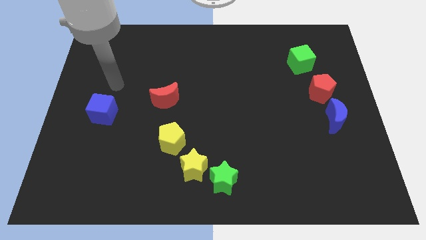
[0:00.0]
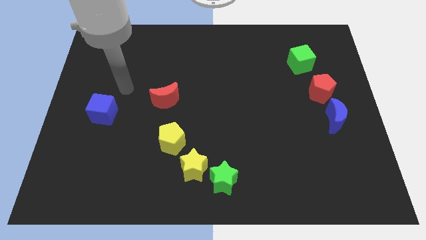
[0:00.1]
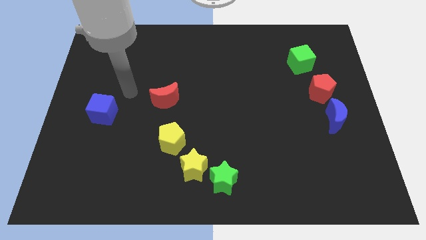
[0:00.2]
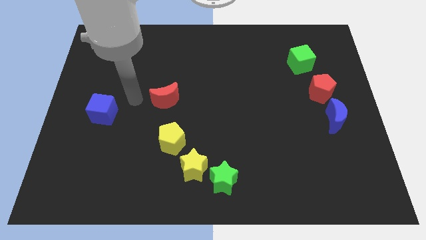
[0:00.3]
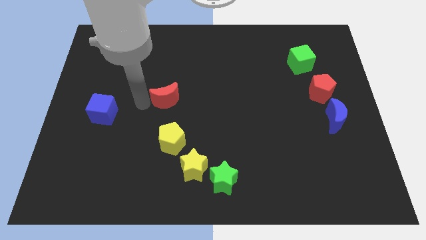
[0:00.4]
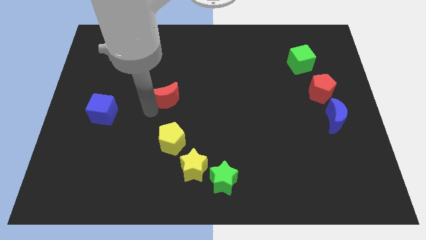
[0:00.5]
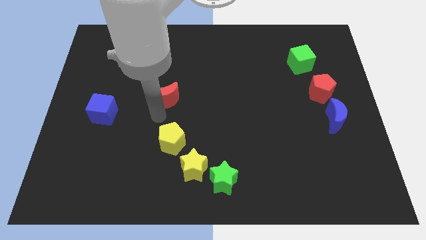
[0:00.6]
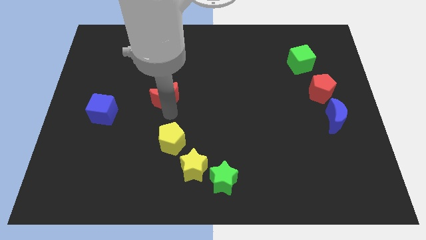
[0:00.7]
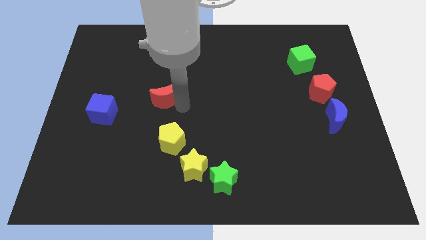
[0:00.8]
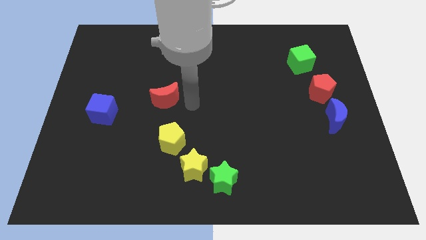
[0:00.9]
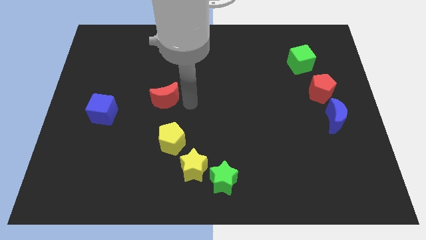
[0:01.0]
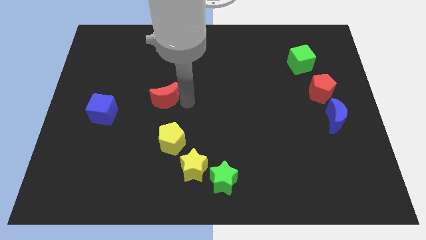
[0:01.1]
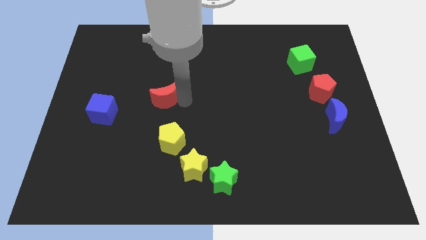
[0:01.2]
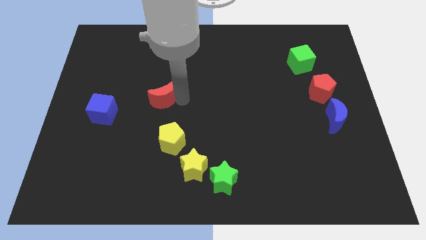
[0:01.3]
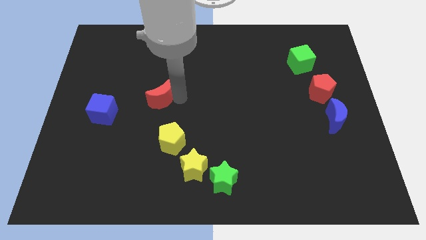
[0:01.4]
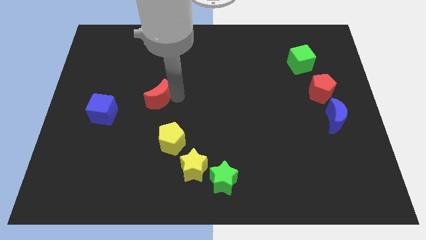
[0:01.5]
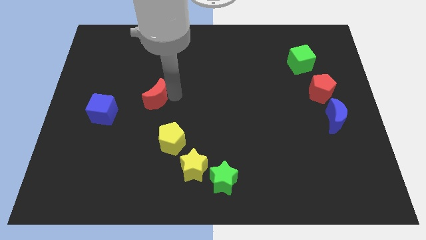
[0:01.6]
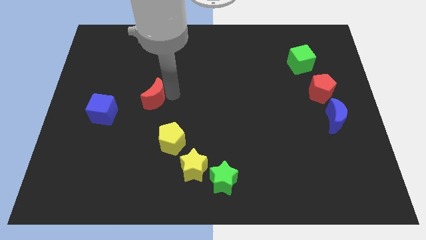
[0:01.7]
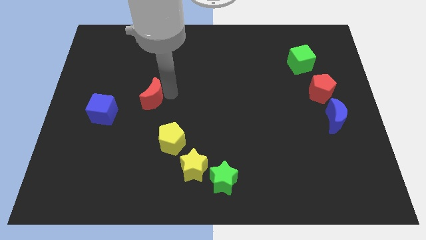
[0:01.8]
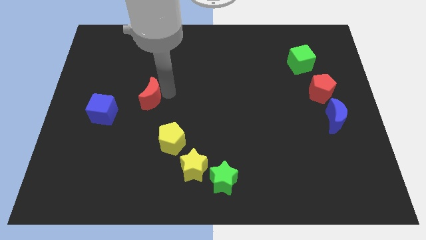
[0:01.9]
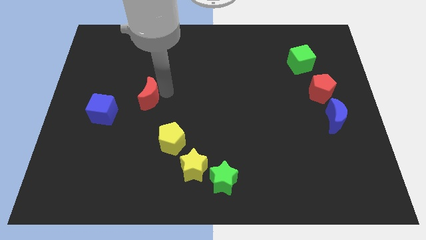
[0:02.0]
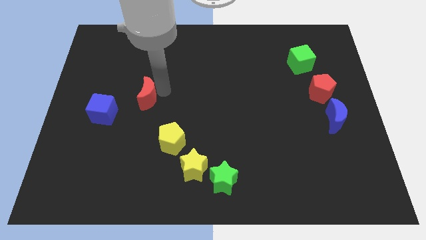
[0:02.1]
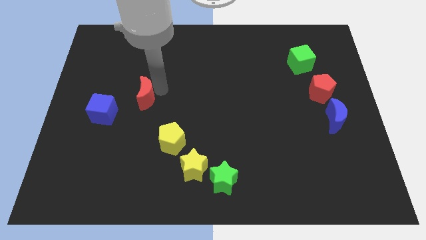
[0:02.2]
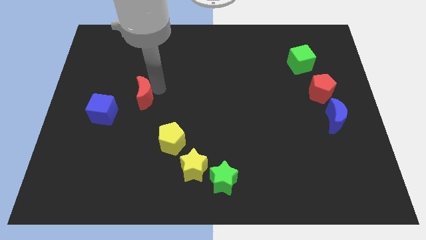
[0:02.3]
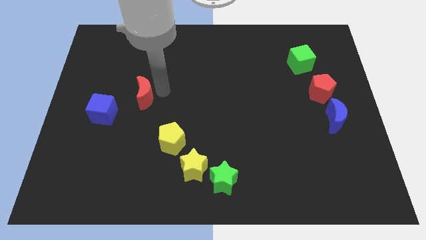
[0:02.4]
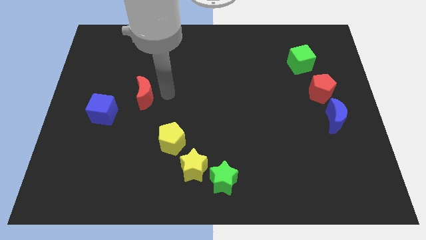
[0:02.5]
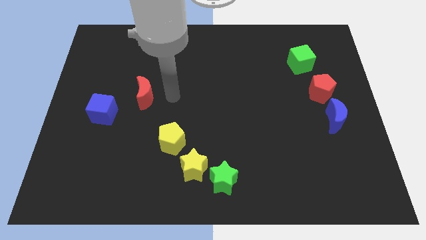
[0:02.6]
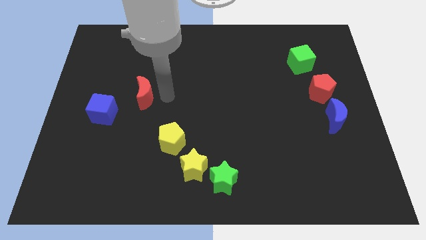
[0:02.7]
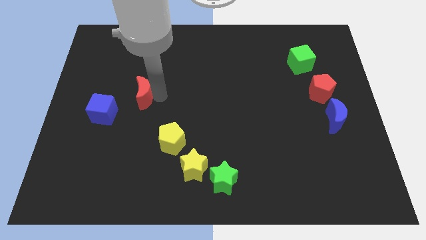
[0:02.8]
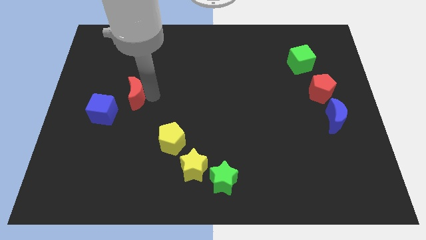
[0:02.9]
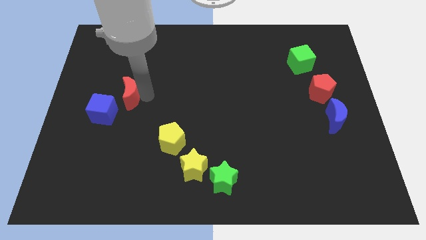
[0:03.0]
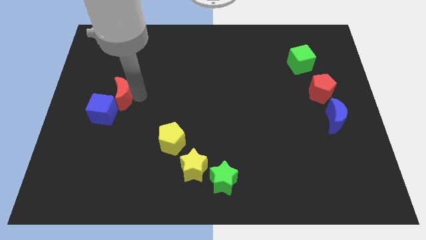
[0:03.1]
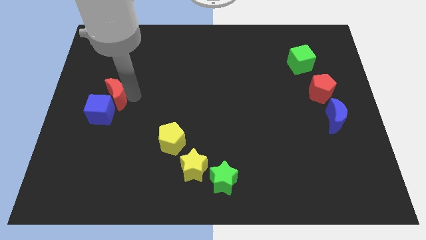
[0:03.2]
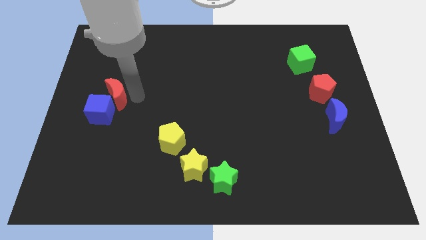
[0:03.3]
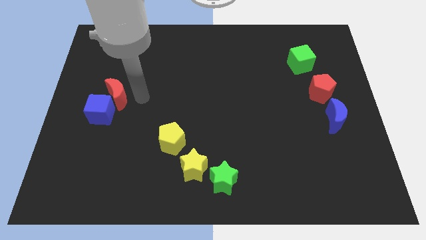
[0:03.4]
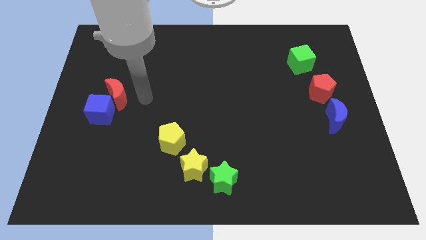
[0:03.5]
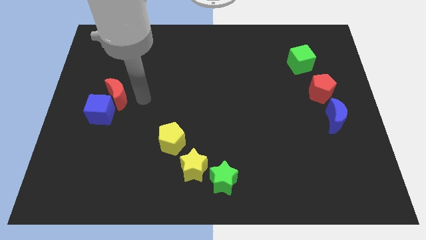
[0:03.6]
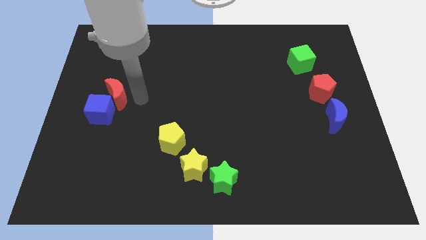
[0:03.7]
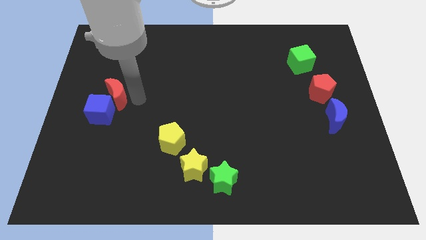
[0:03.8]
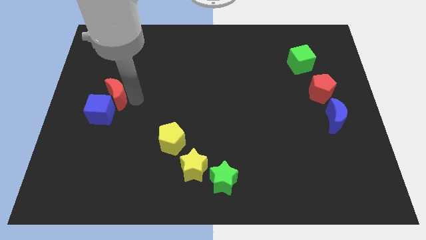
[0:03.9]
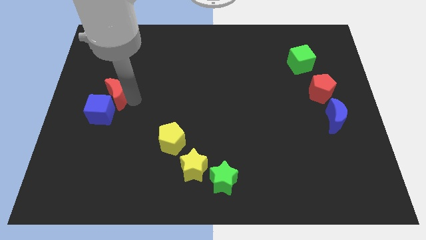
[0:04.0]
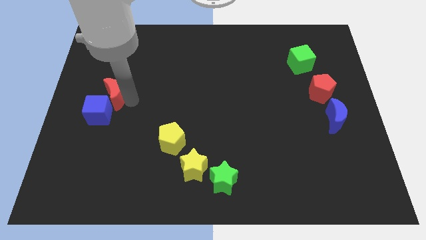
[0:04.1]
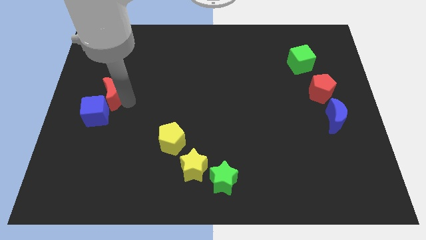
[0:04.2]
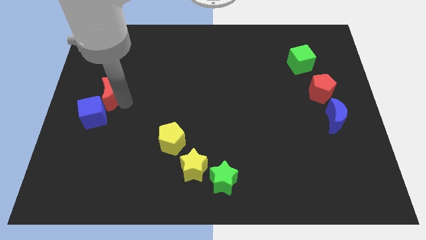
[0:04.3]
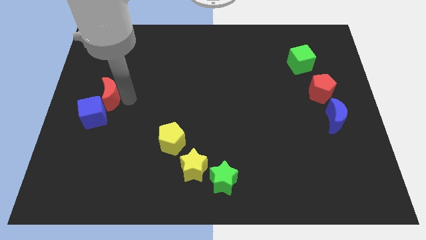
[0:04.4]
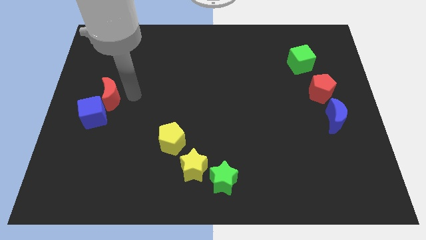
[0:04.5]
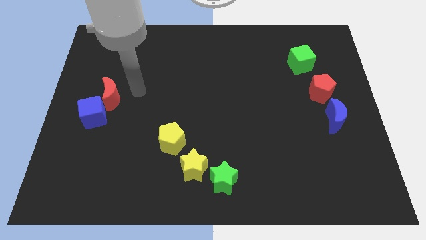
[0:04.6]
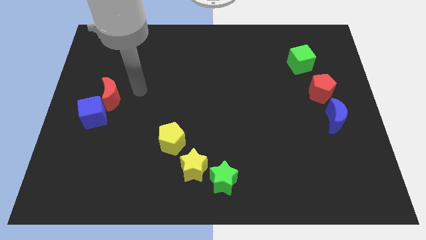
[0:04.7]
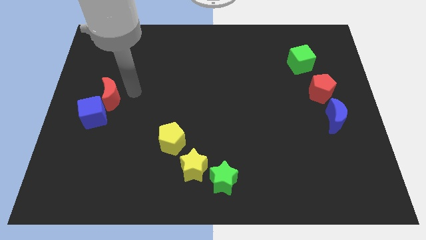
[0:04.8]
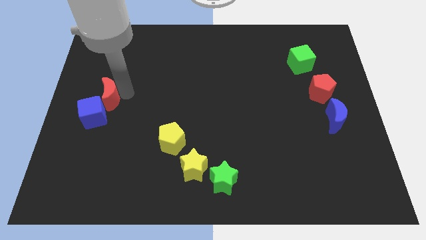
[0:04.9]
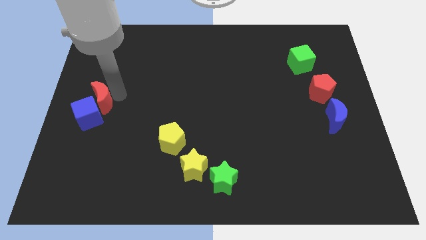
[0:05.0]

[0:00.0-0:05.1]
push the red moon to the left side
